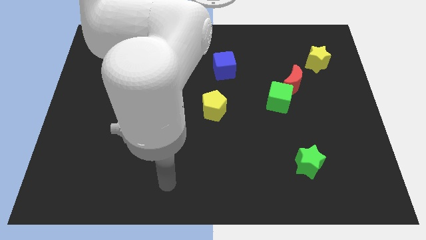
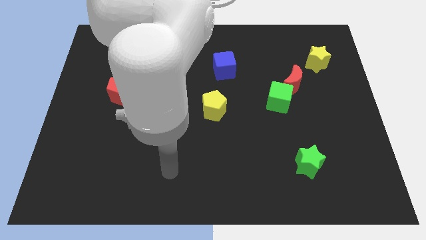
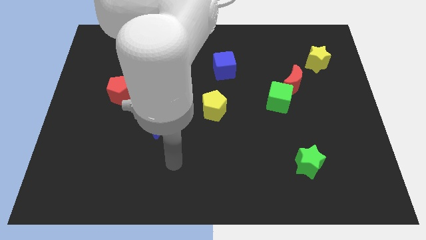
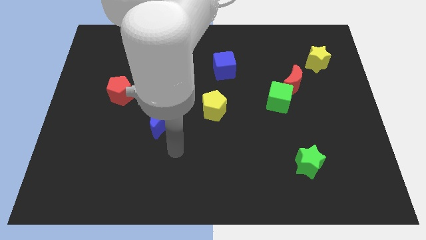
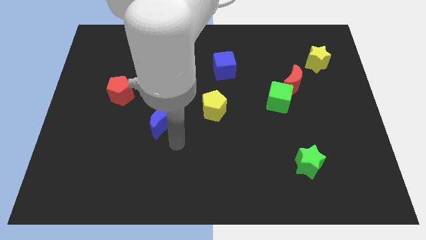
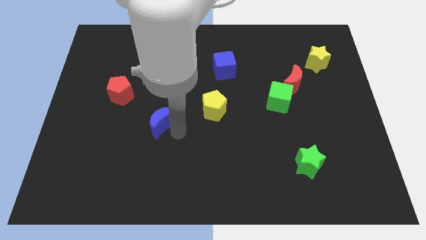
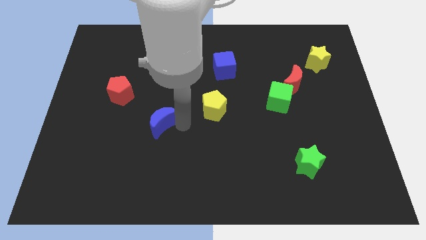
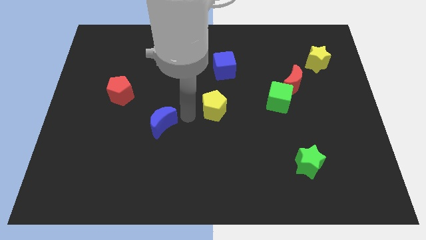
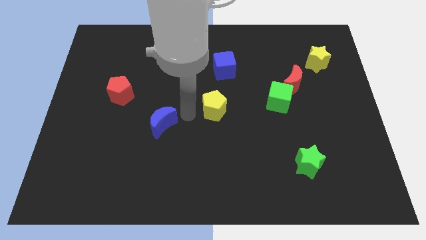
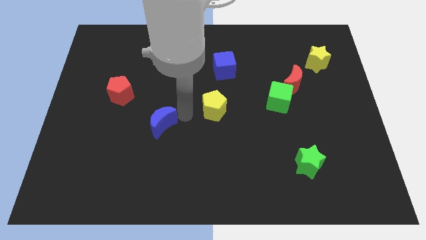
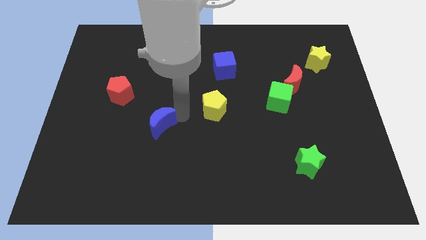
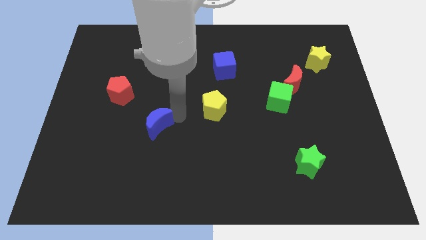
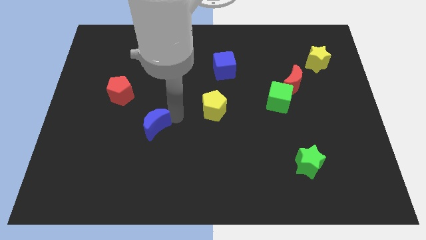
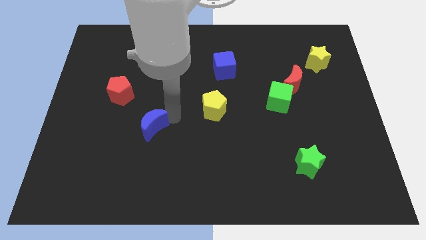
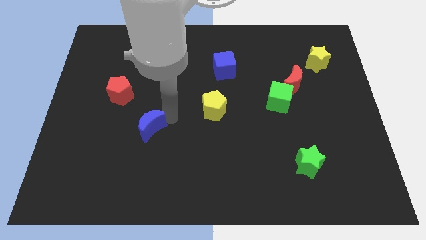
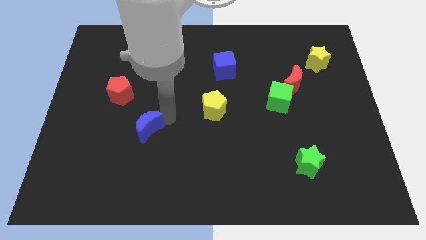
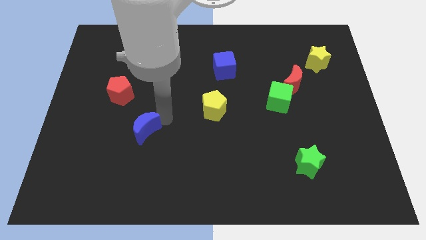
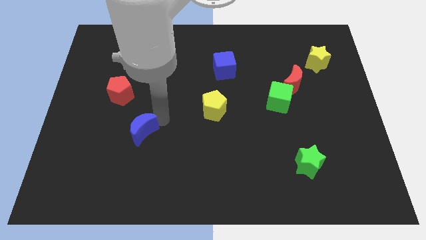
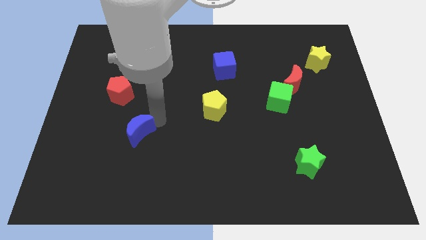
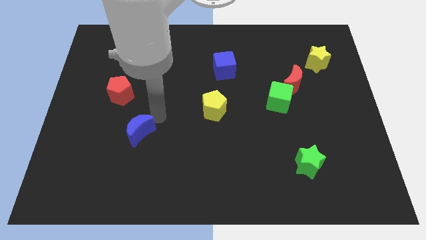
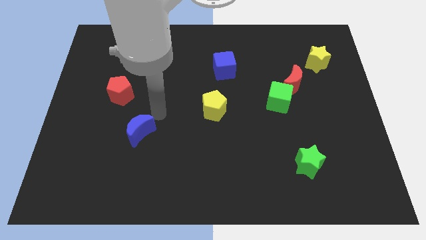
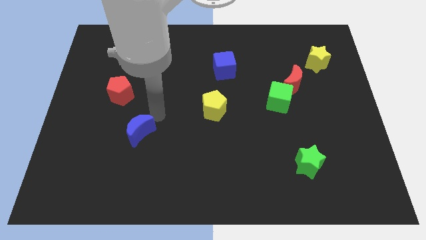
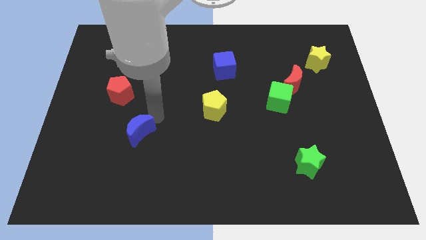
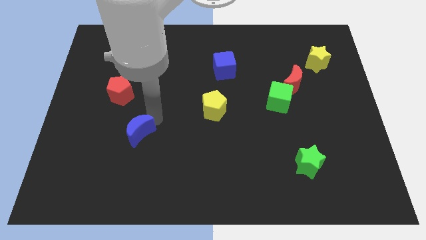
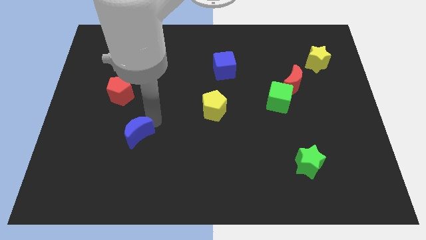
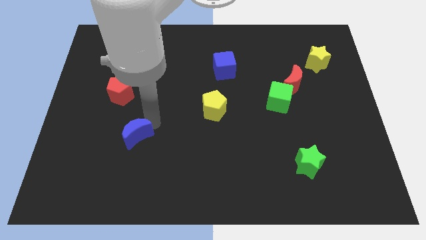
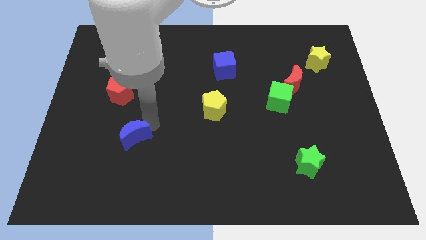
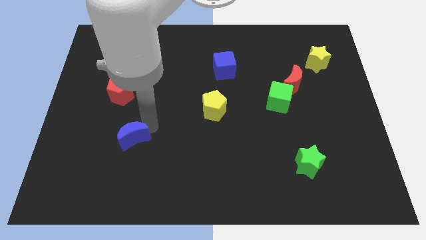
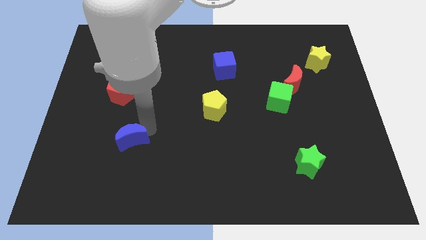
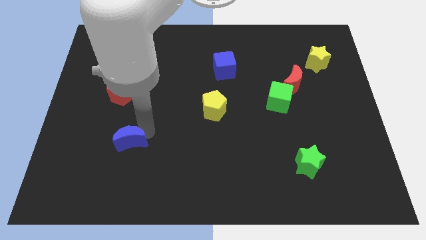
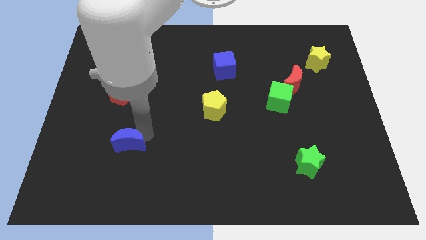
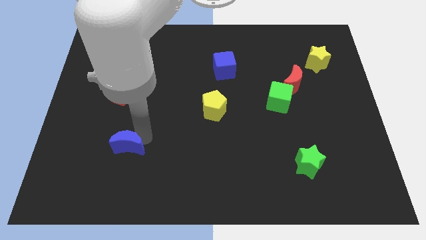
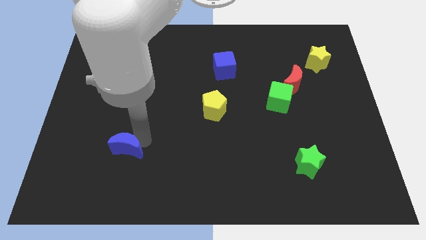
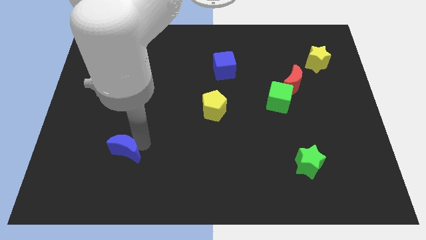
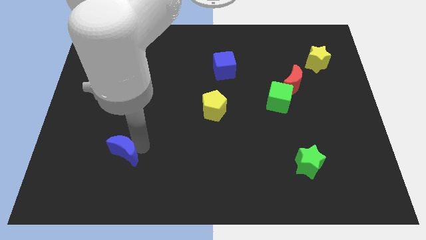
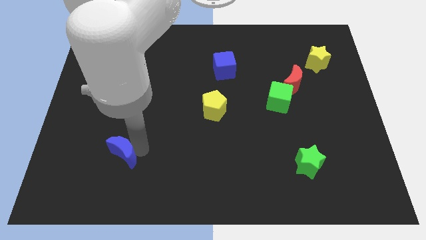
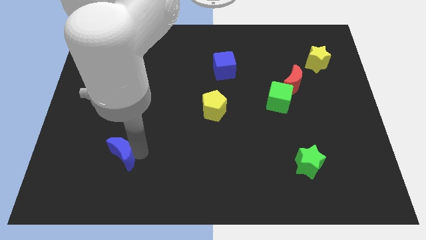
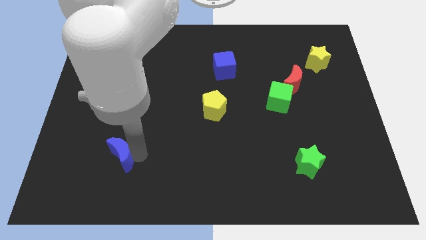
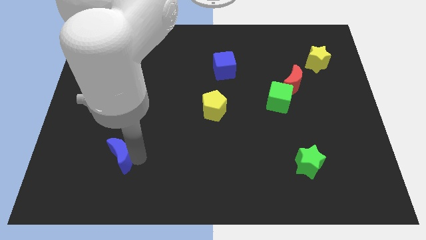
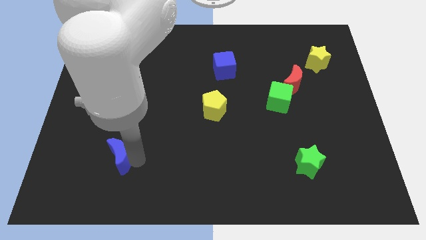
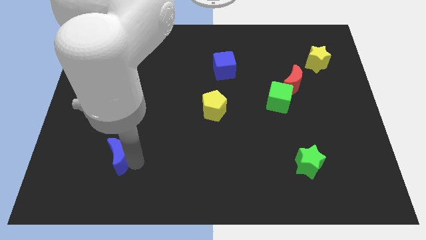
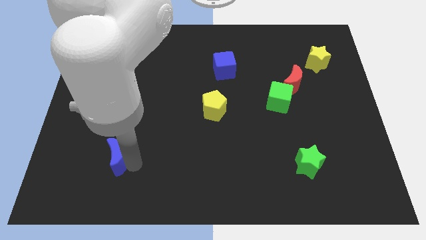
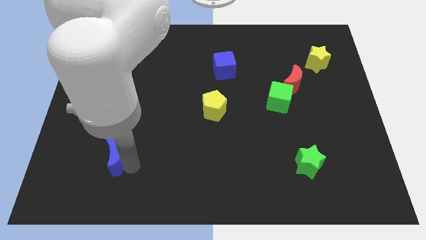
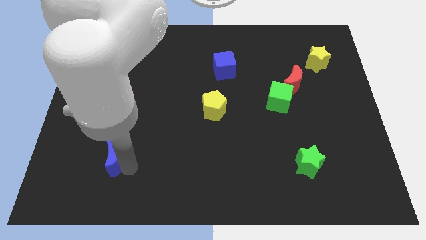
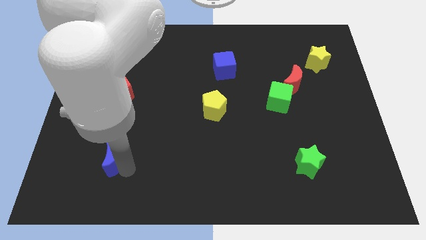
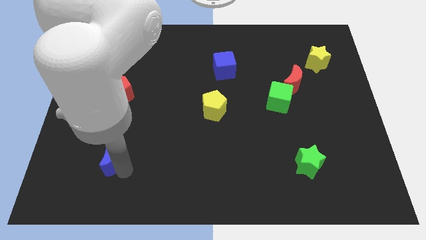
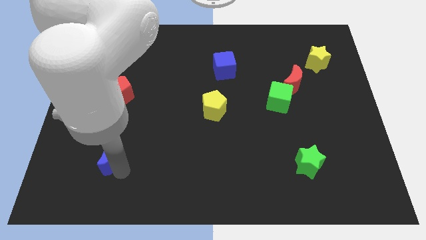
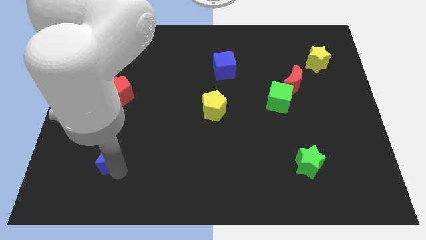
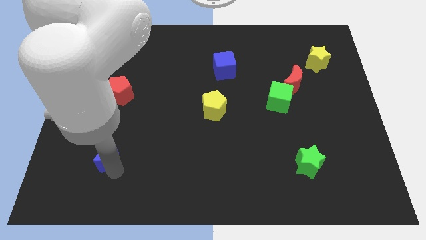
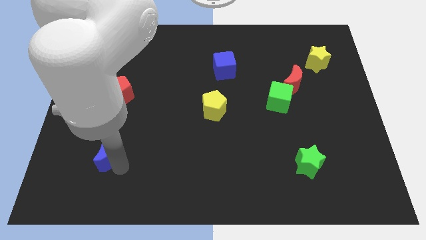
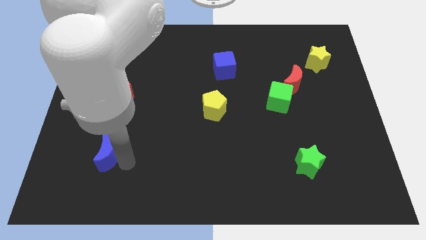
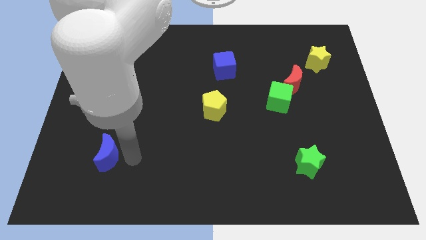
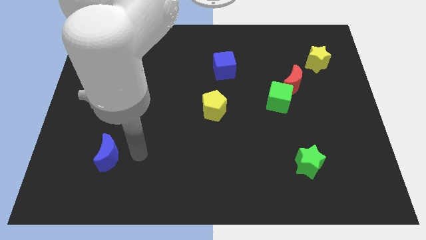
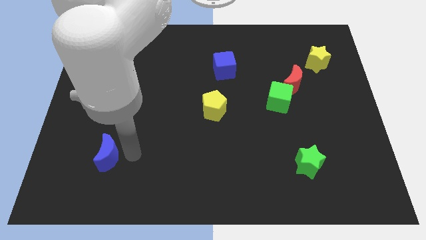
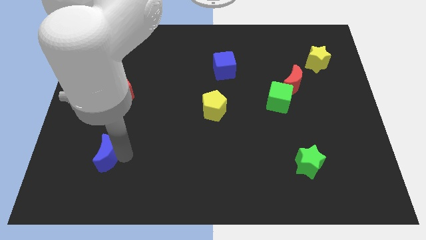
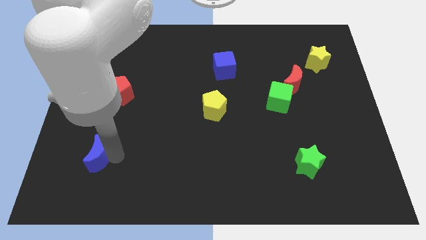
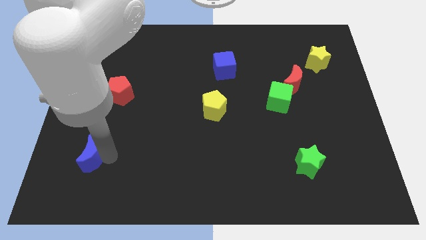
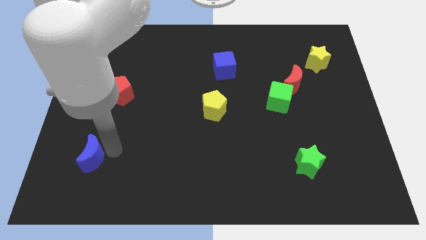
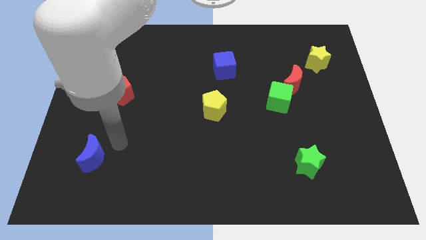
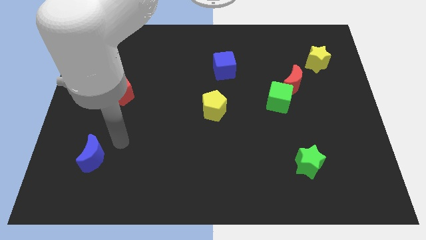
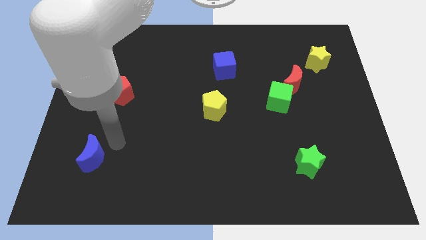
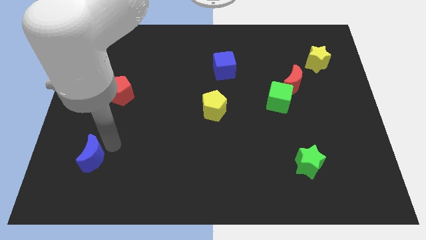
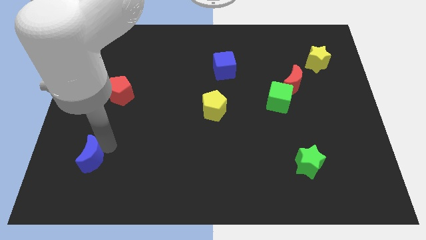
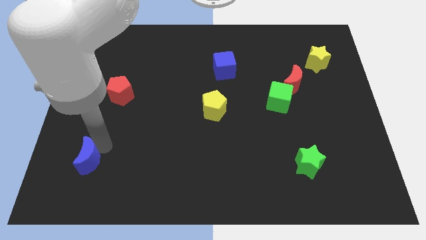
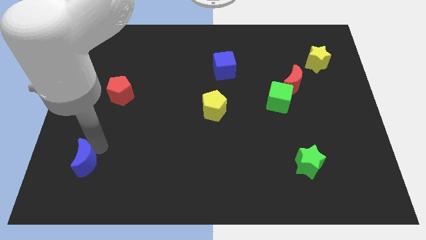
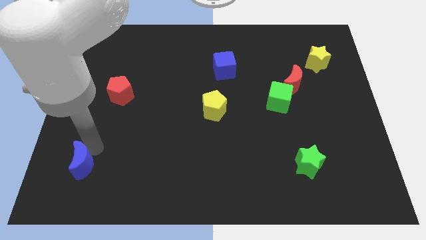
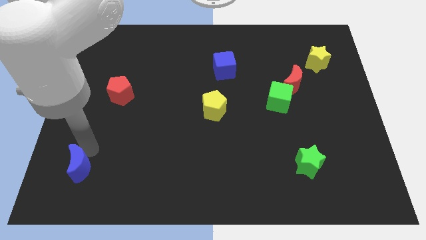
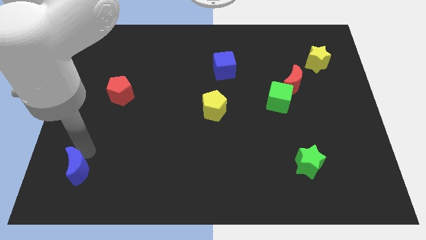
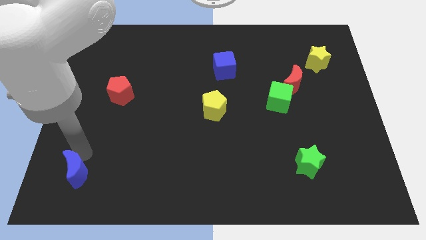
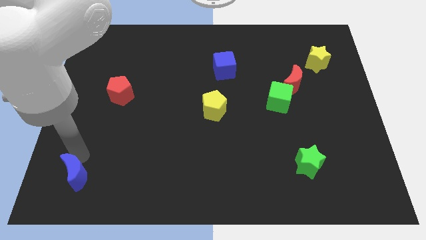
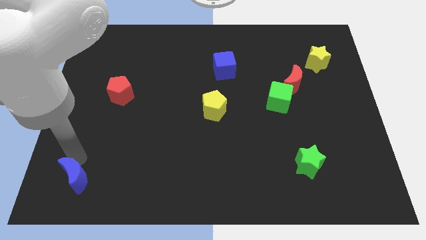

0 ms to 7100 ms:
move the blue moon to the bottom left of the board
